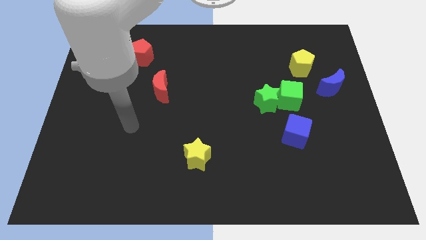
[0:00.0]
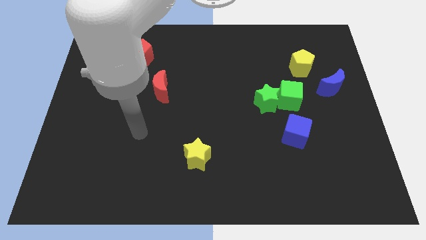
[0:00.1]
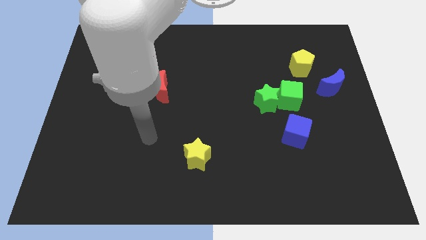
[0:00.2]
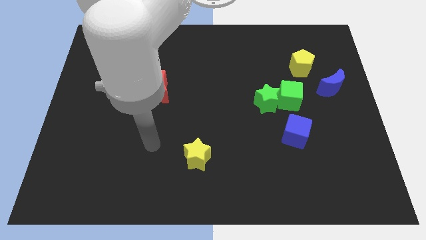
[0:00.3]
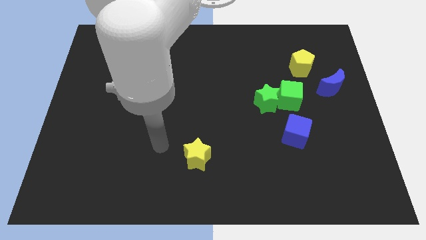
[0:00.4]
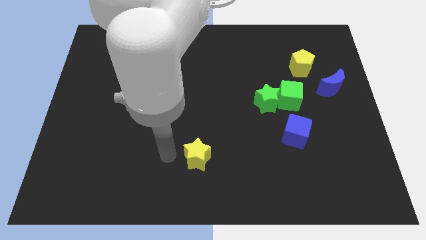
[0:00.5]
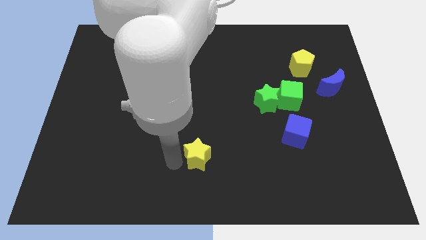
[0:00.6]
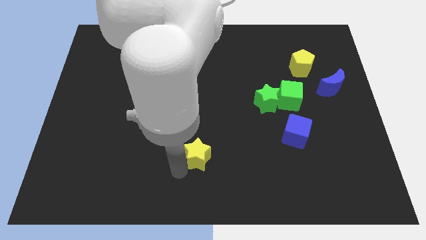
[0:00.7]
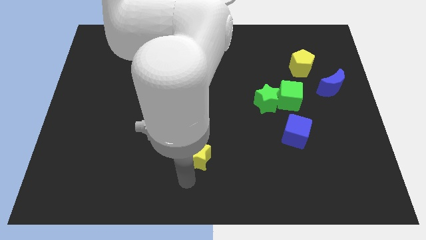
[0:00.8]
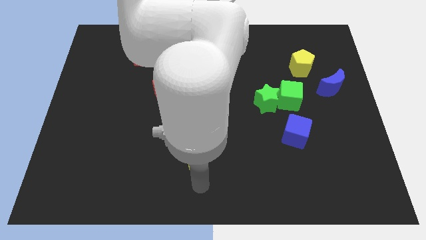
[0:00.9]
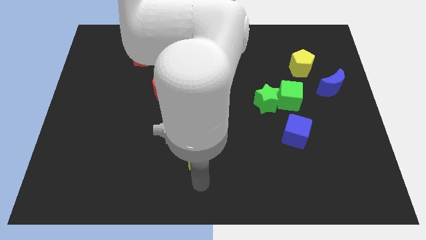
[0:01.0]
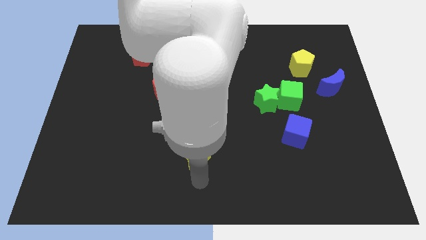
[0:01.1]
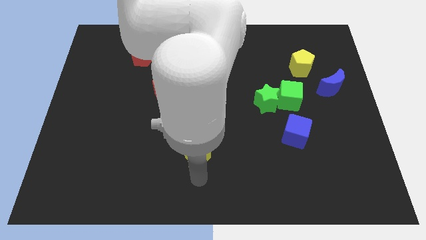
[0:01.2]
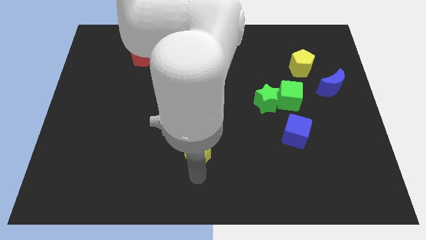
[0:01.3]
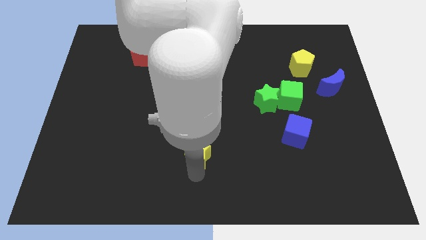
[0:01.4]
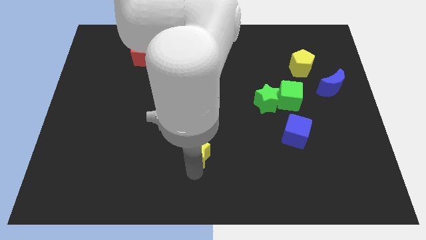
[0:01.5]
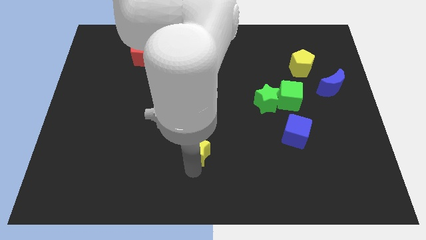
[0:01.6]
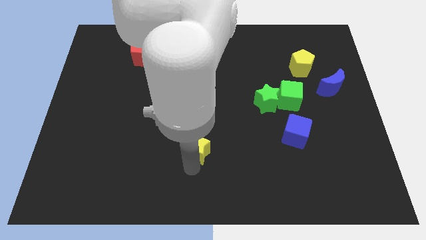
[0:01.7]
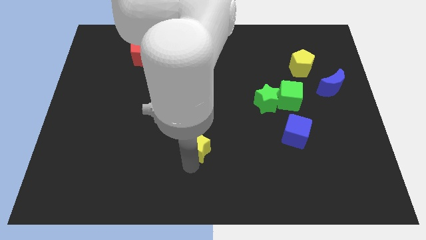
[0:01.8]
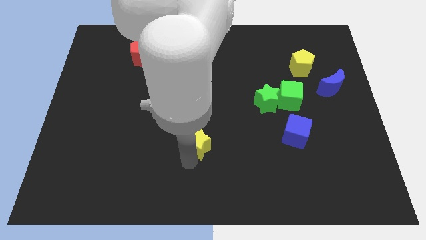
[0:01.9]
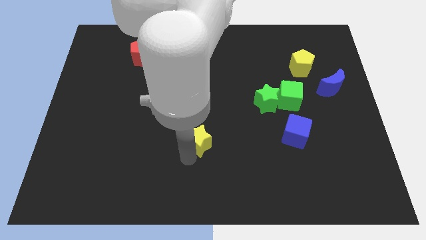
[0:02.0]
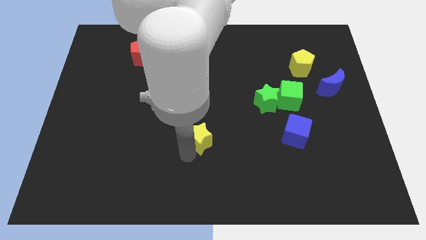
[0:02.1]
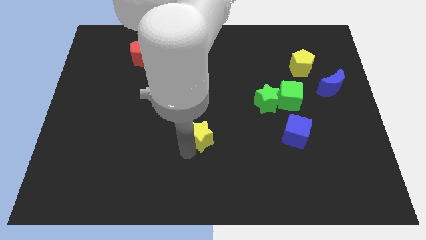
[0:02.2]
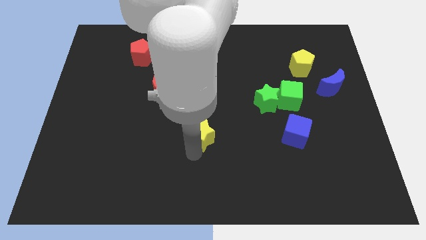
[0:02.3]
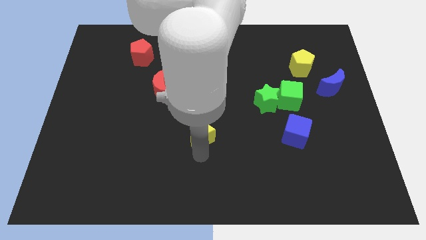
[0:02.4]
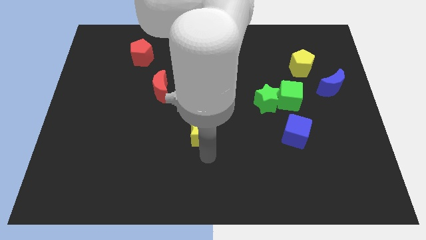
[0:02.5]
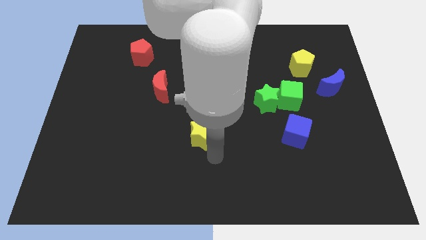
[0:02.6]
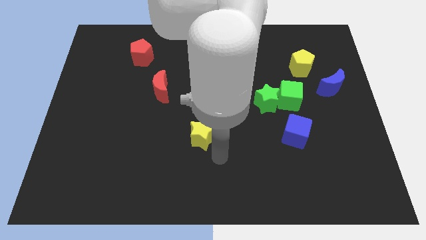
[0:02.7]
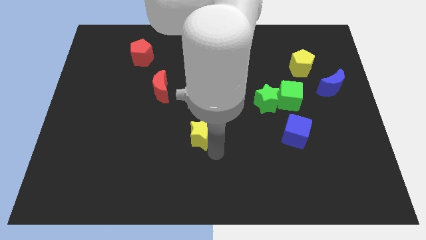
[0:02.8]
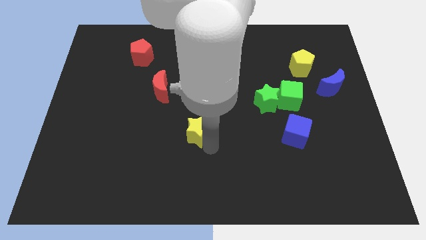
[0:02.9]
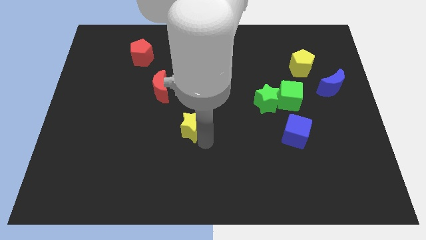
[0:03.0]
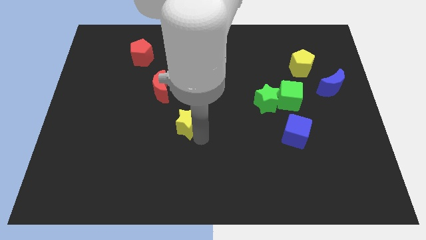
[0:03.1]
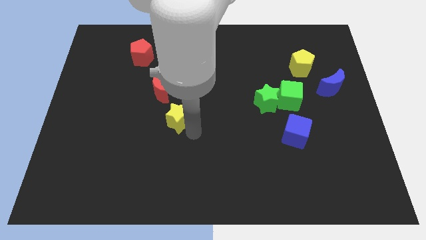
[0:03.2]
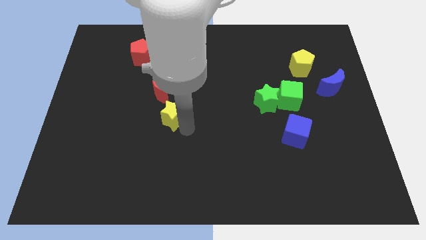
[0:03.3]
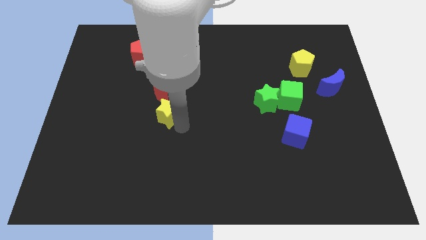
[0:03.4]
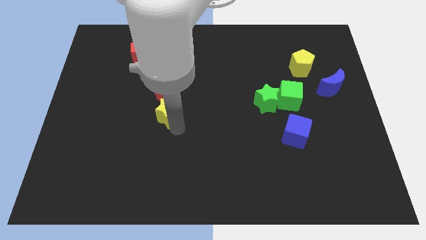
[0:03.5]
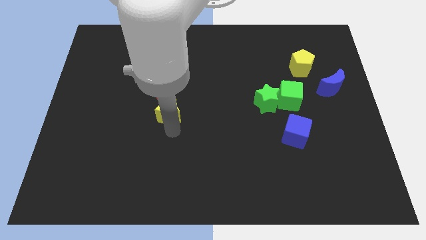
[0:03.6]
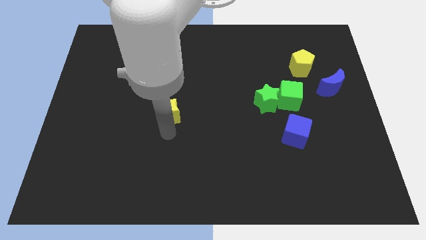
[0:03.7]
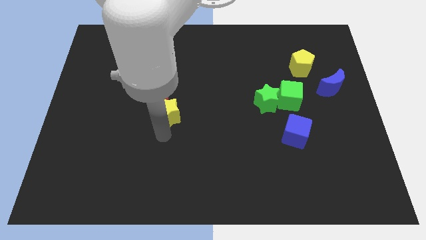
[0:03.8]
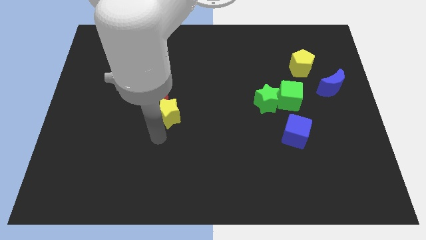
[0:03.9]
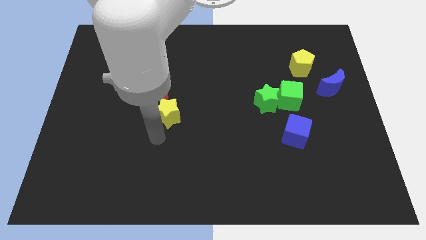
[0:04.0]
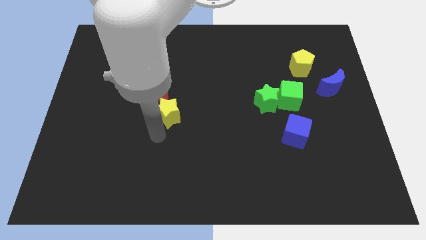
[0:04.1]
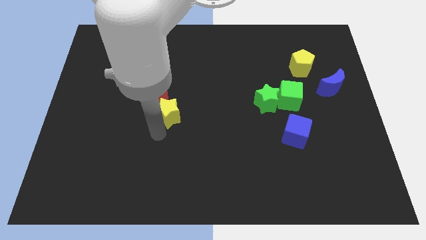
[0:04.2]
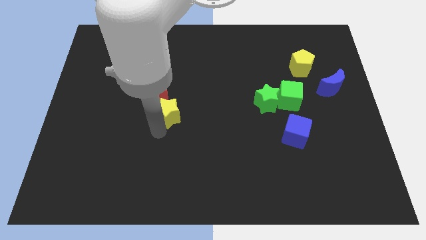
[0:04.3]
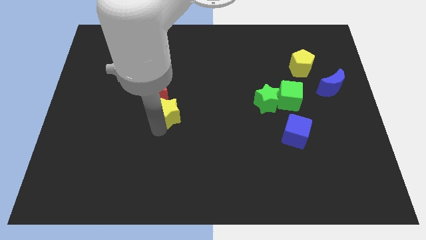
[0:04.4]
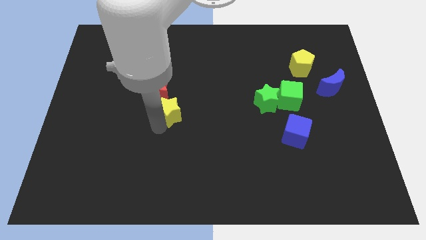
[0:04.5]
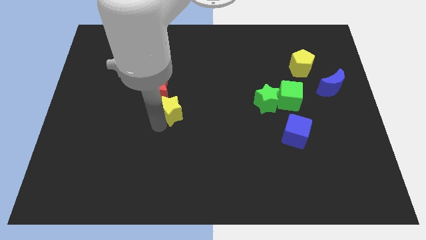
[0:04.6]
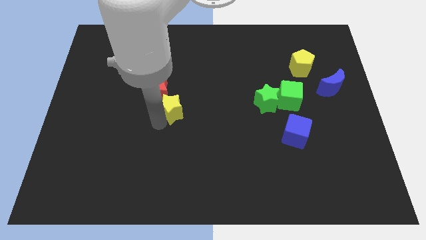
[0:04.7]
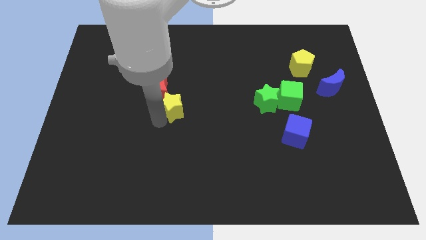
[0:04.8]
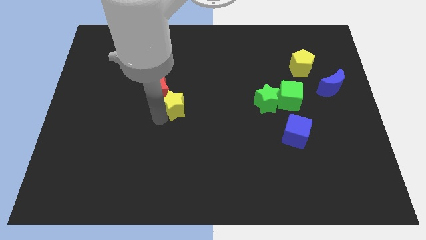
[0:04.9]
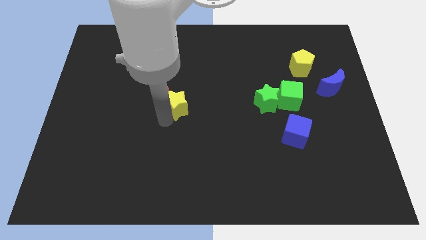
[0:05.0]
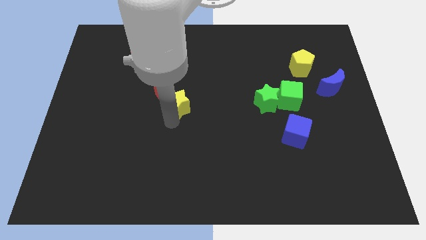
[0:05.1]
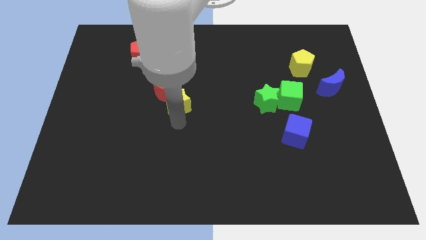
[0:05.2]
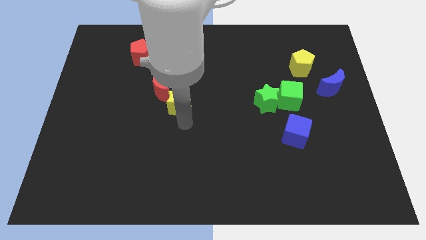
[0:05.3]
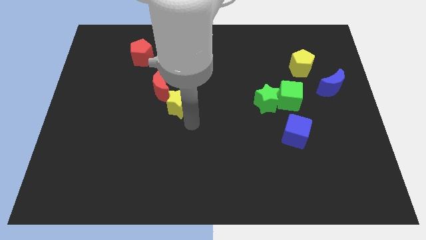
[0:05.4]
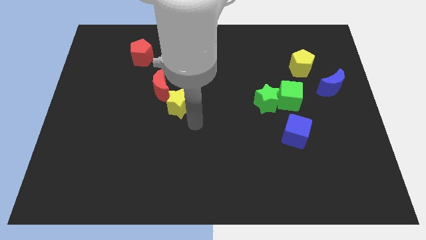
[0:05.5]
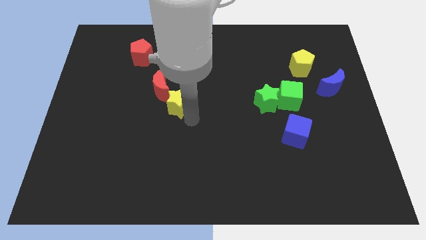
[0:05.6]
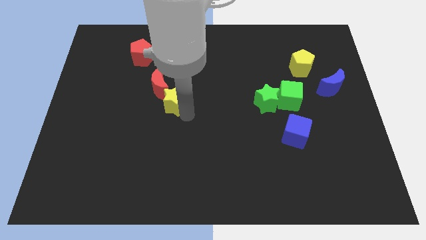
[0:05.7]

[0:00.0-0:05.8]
put the yellow star to the red moon
